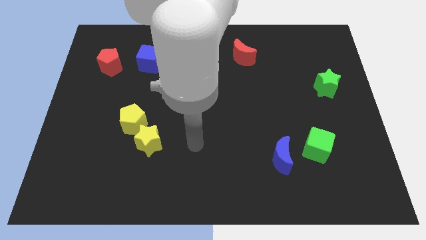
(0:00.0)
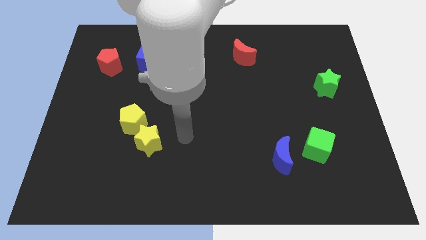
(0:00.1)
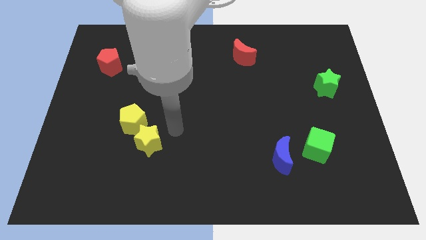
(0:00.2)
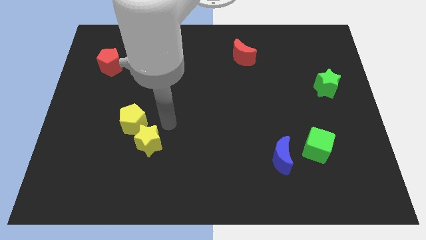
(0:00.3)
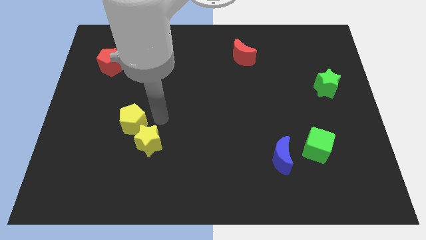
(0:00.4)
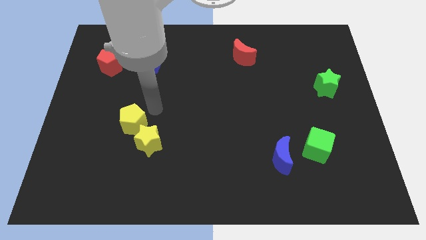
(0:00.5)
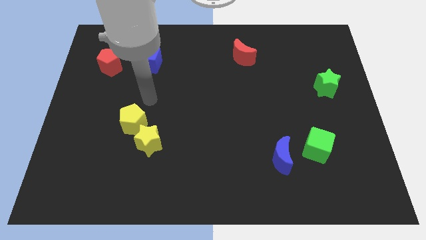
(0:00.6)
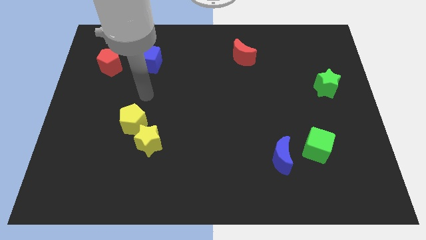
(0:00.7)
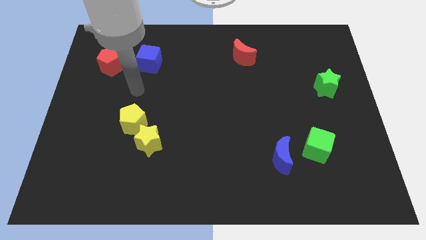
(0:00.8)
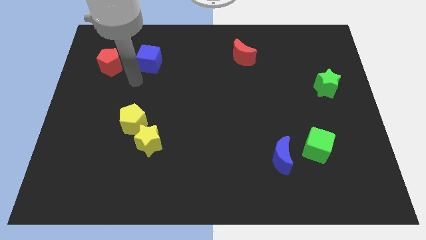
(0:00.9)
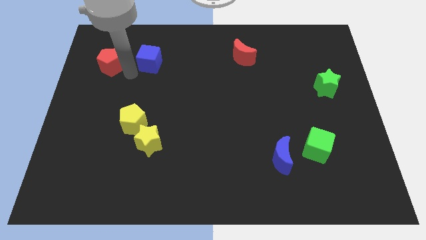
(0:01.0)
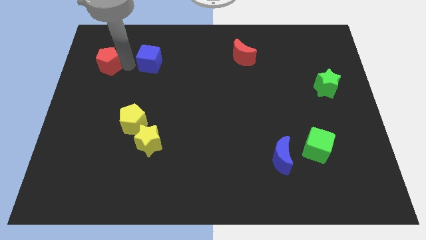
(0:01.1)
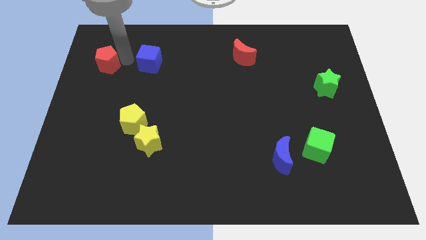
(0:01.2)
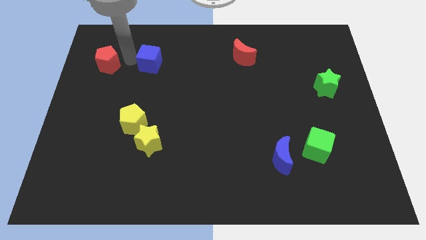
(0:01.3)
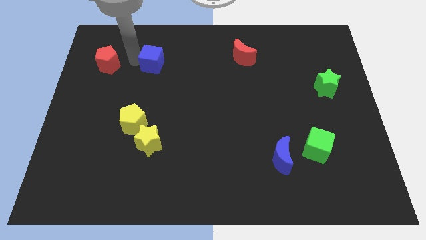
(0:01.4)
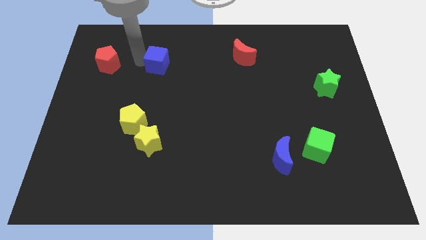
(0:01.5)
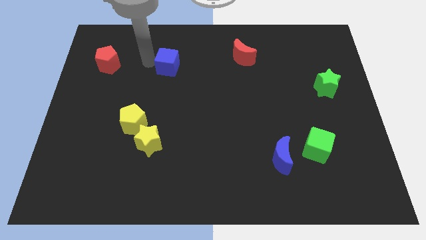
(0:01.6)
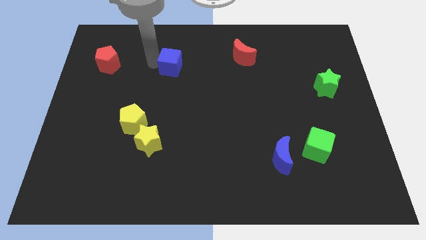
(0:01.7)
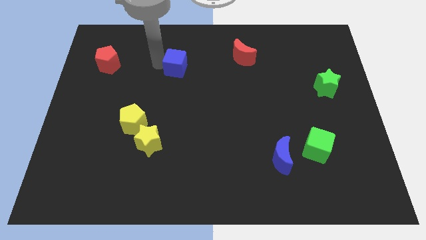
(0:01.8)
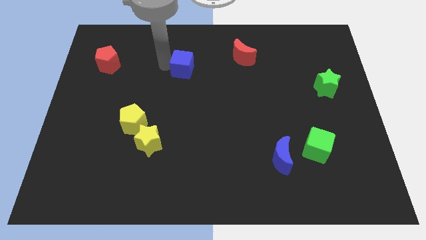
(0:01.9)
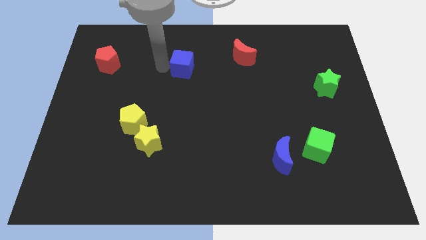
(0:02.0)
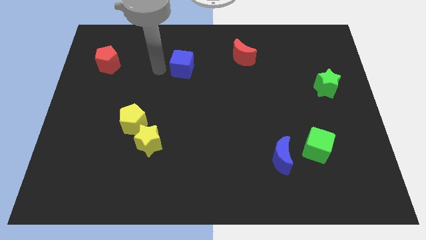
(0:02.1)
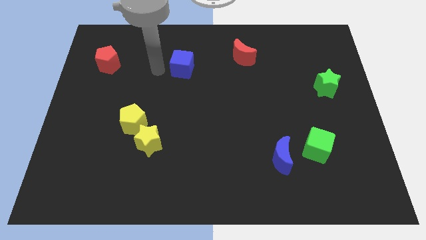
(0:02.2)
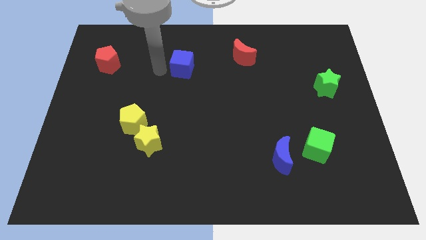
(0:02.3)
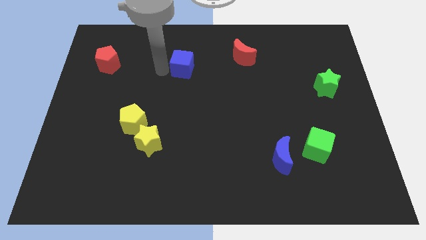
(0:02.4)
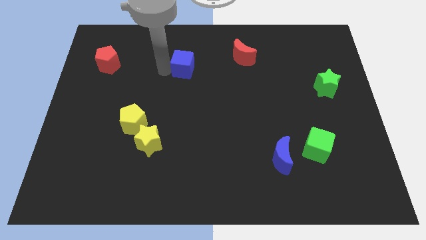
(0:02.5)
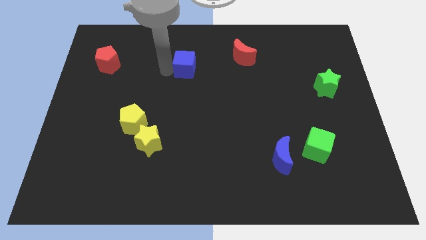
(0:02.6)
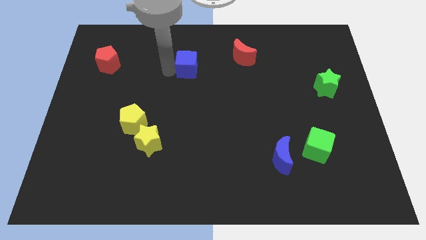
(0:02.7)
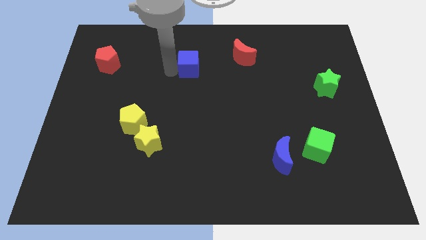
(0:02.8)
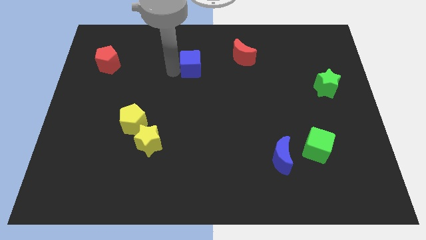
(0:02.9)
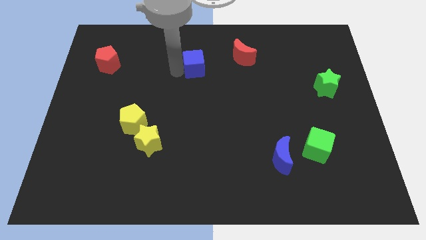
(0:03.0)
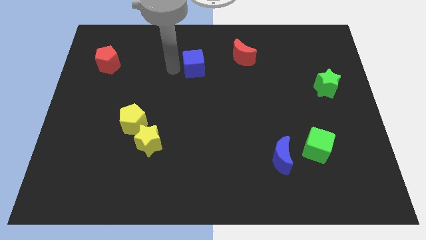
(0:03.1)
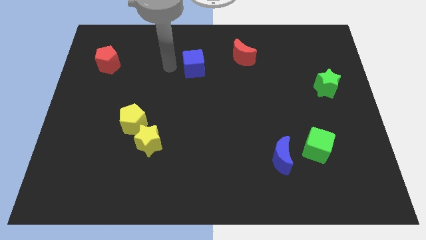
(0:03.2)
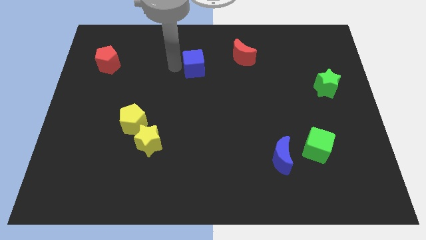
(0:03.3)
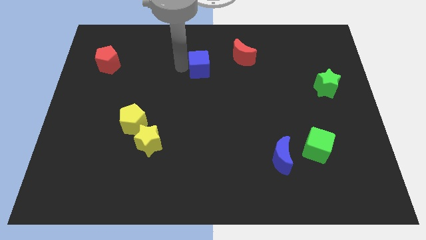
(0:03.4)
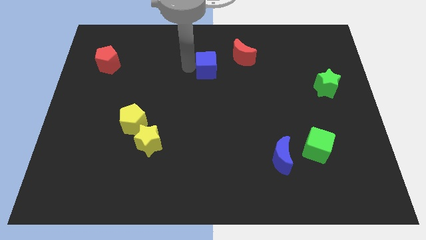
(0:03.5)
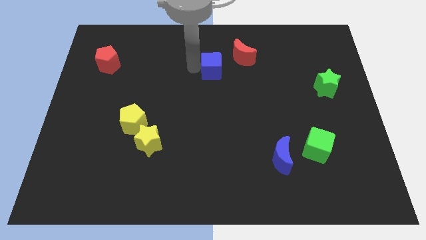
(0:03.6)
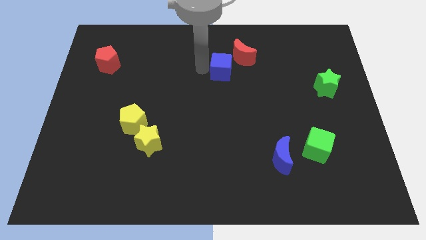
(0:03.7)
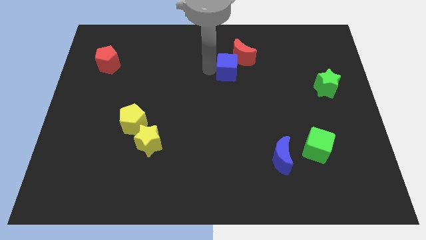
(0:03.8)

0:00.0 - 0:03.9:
slide the blue cube right

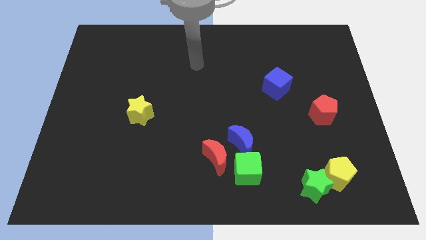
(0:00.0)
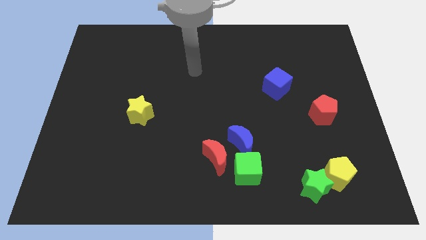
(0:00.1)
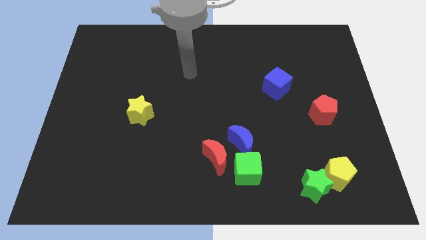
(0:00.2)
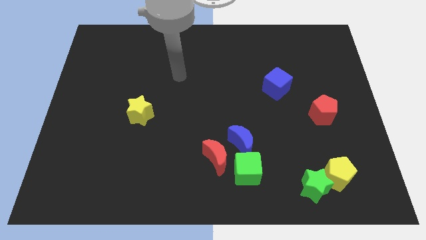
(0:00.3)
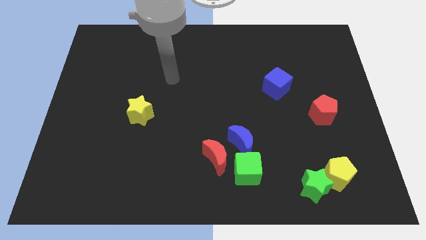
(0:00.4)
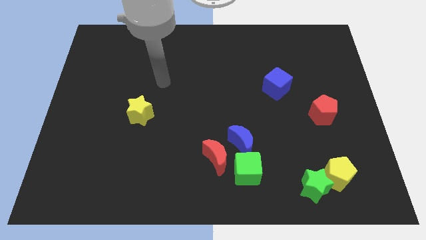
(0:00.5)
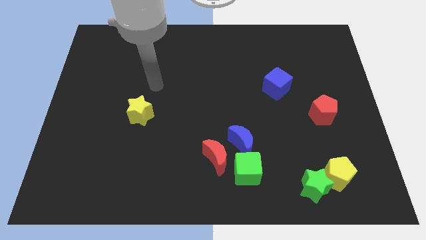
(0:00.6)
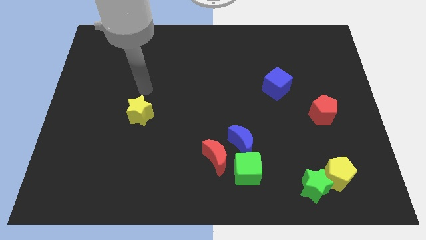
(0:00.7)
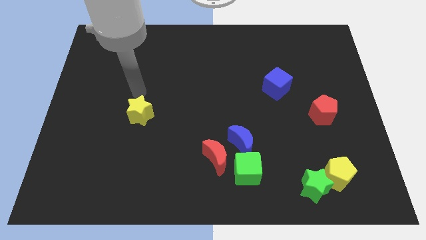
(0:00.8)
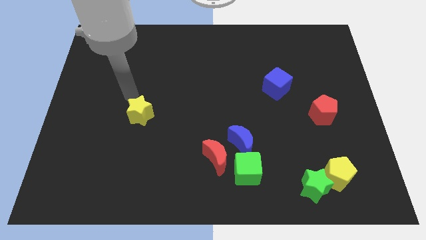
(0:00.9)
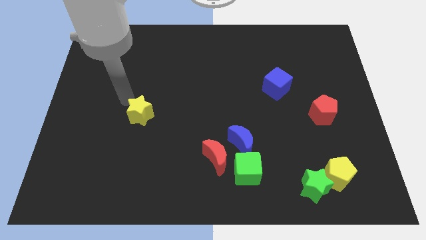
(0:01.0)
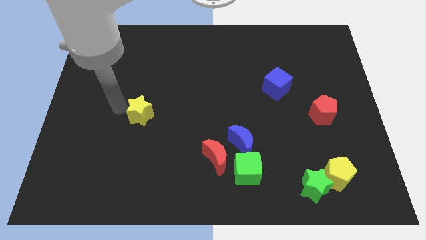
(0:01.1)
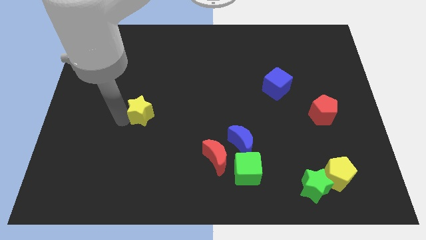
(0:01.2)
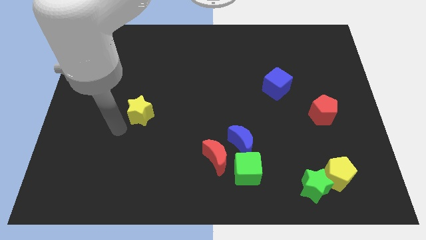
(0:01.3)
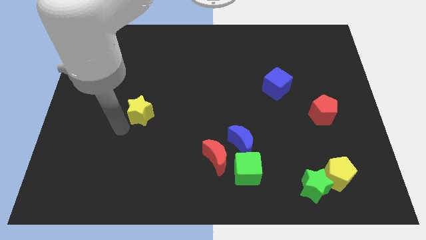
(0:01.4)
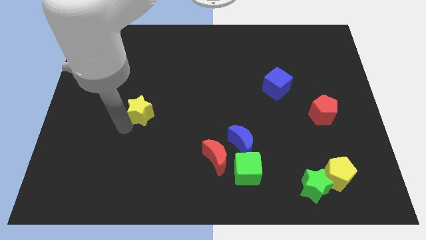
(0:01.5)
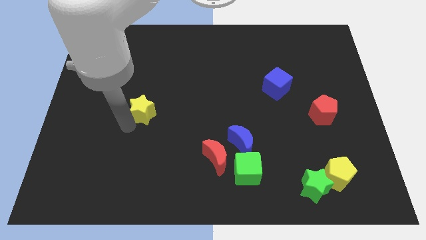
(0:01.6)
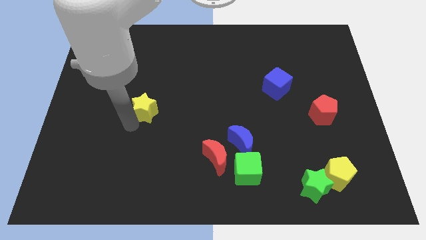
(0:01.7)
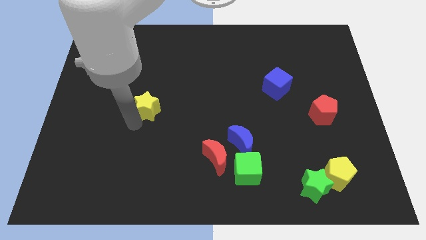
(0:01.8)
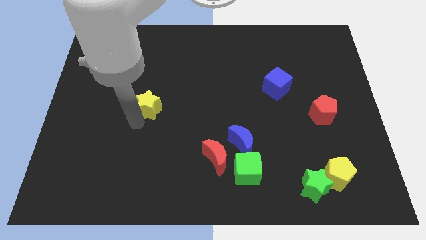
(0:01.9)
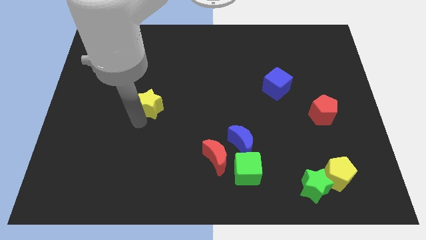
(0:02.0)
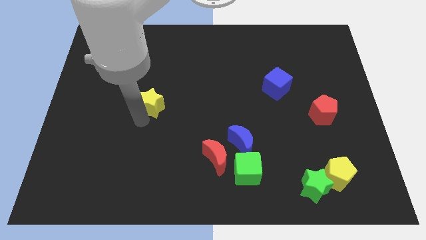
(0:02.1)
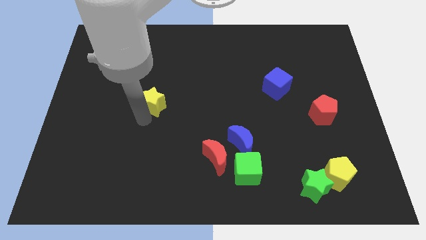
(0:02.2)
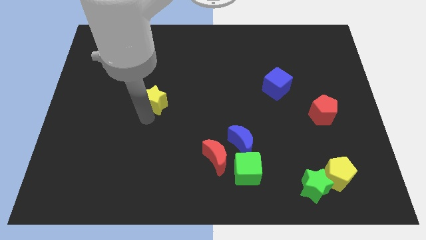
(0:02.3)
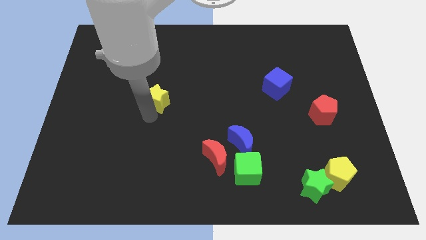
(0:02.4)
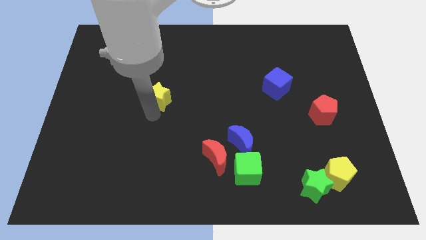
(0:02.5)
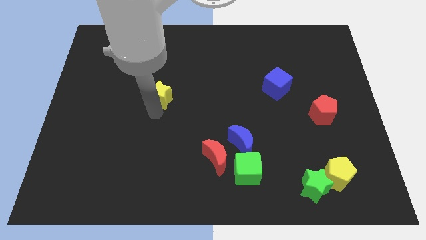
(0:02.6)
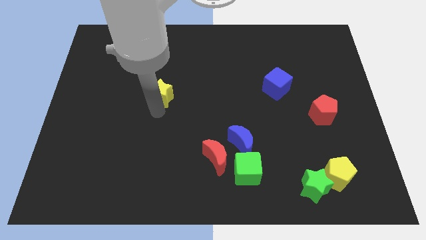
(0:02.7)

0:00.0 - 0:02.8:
move the yellow star somewhat diagonally up and right

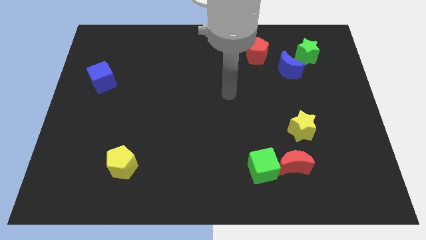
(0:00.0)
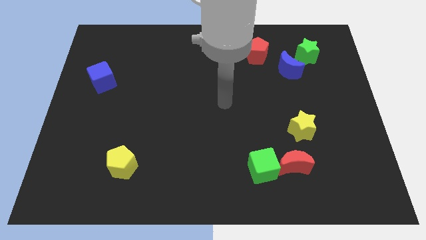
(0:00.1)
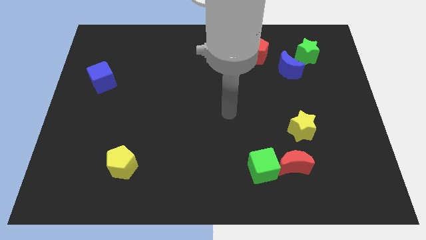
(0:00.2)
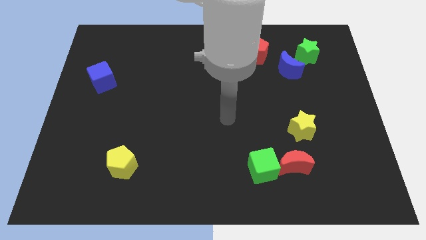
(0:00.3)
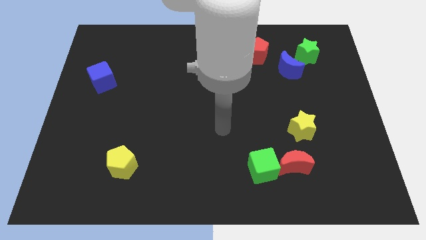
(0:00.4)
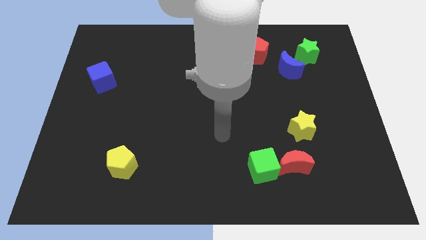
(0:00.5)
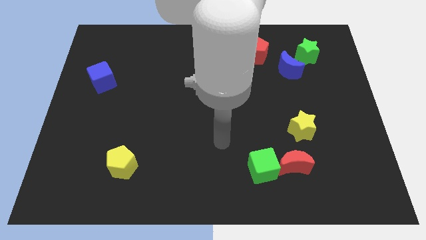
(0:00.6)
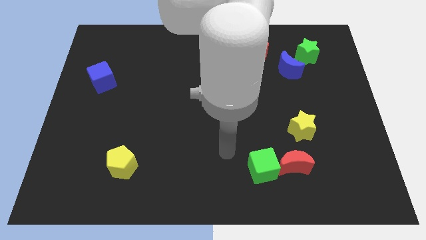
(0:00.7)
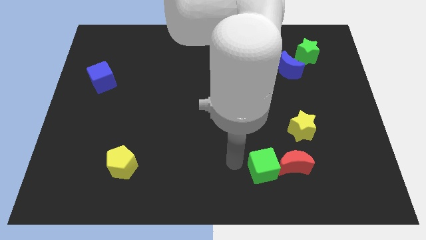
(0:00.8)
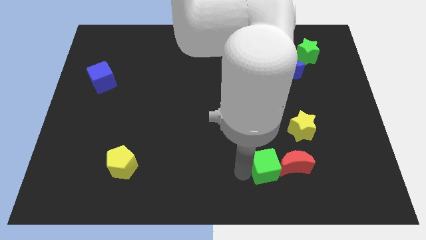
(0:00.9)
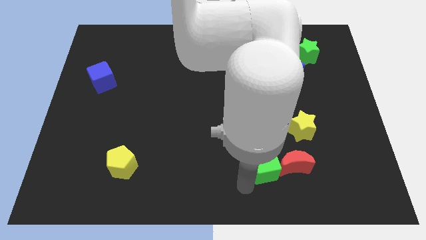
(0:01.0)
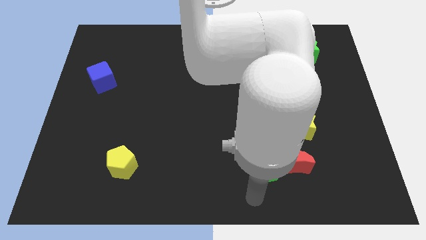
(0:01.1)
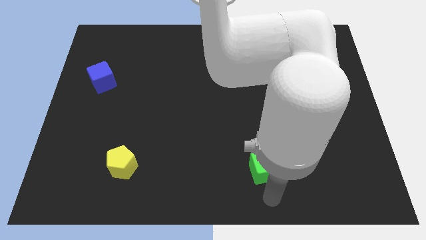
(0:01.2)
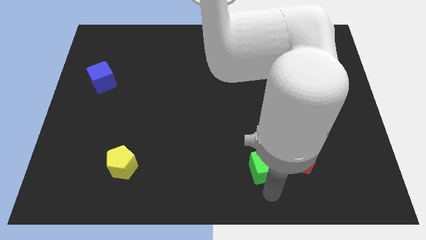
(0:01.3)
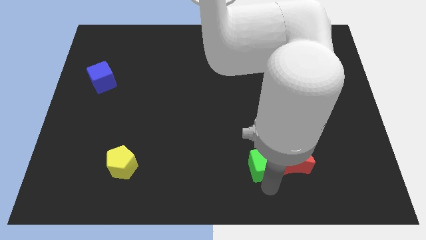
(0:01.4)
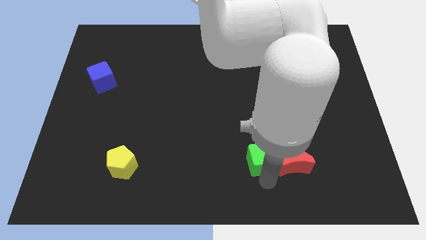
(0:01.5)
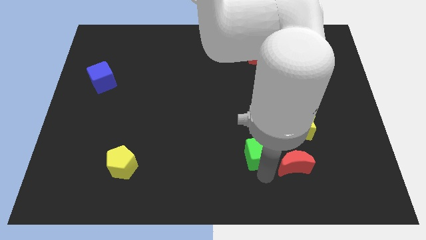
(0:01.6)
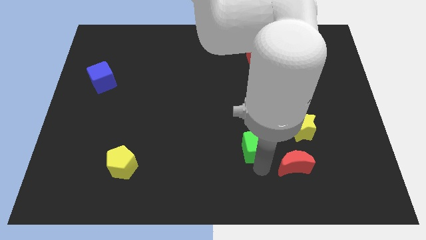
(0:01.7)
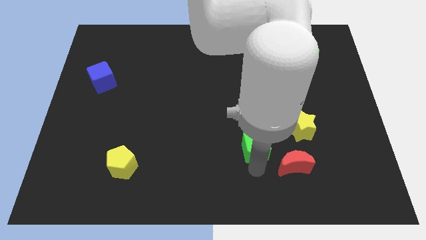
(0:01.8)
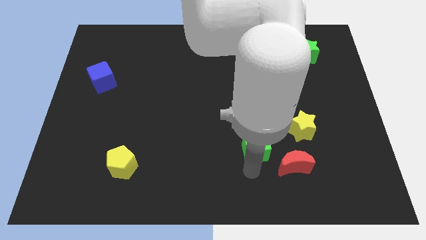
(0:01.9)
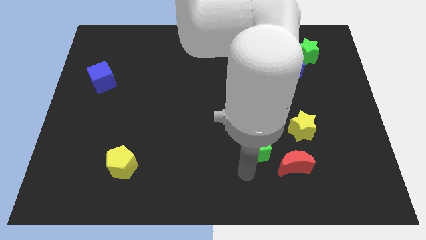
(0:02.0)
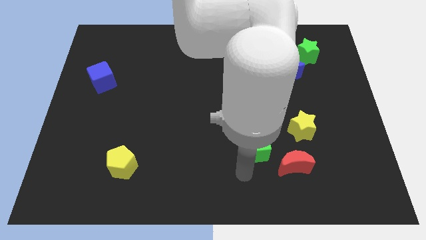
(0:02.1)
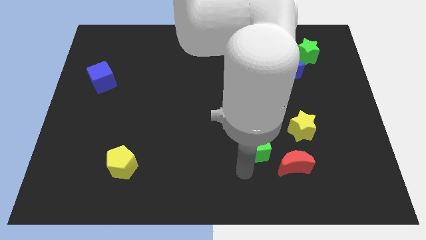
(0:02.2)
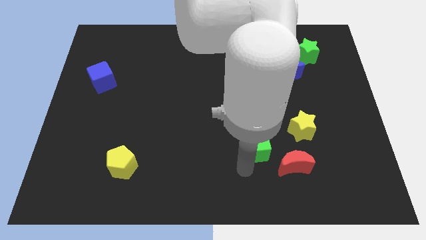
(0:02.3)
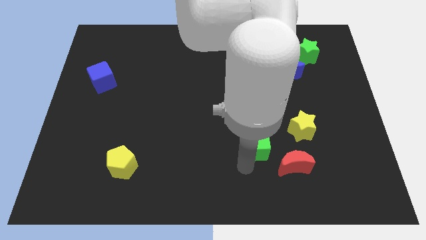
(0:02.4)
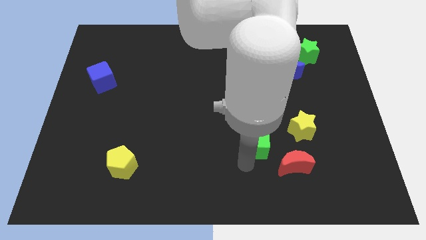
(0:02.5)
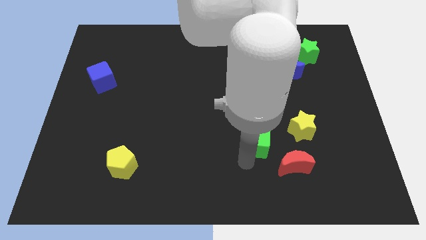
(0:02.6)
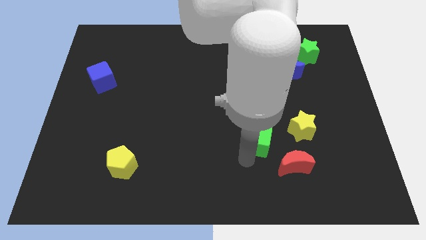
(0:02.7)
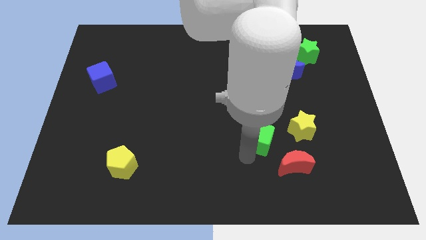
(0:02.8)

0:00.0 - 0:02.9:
move the green cube slightly up
